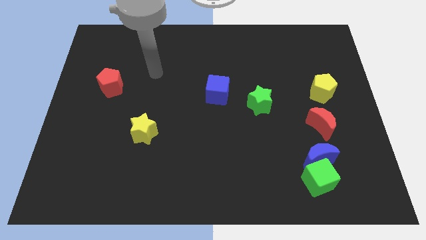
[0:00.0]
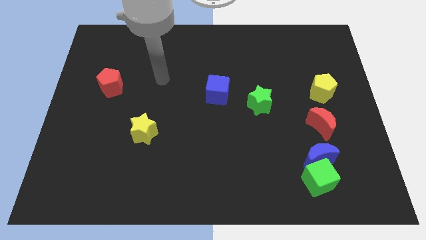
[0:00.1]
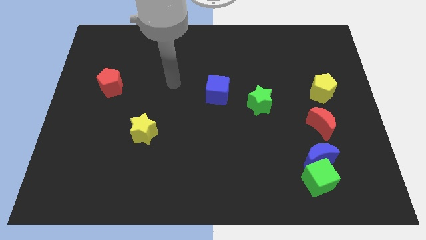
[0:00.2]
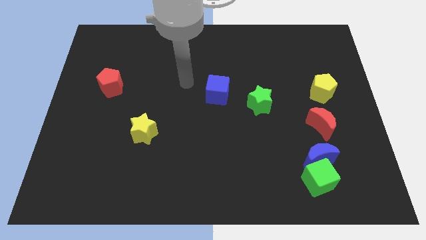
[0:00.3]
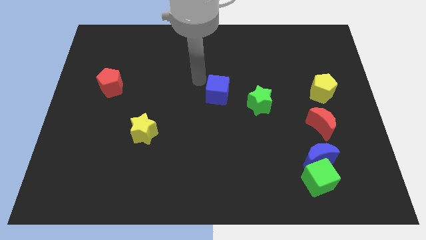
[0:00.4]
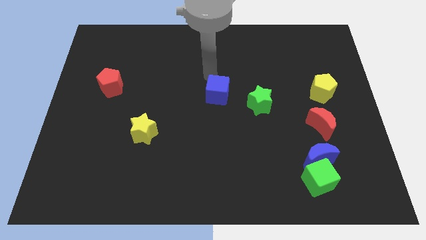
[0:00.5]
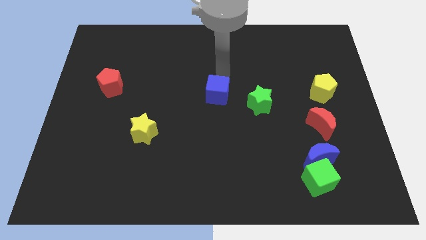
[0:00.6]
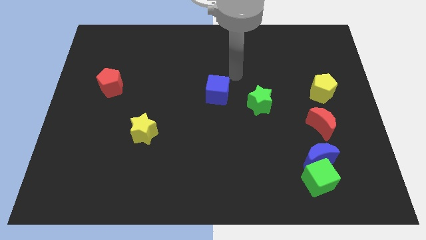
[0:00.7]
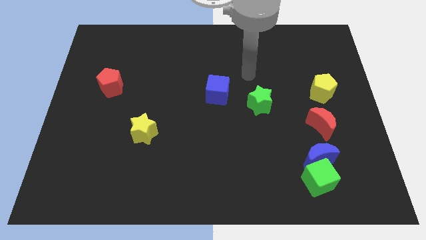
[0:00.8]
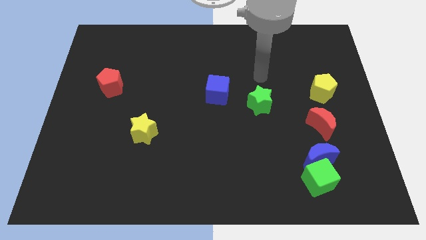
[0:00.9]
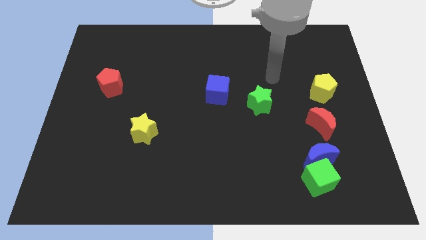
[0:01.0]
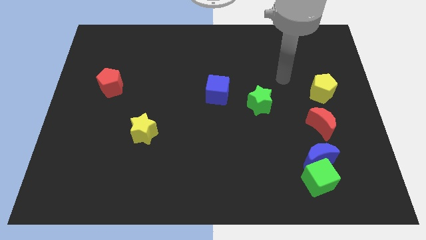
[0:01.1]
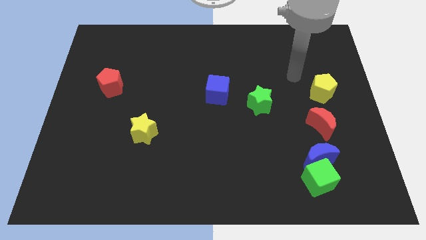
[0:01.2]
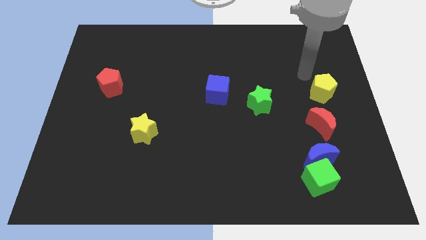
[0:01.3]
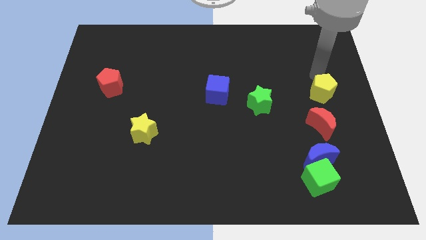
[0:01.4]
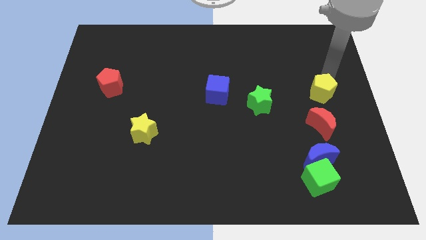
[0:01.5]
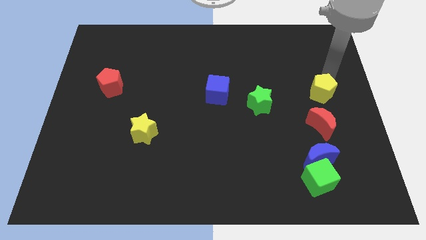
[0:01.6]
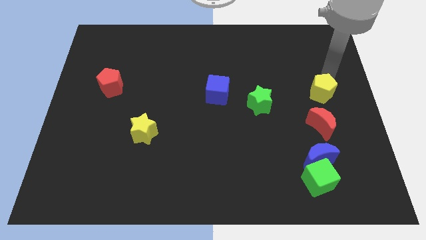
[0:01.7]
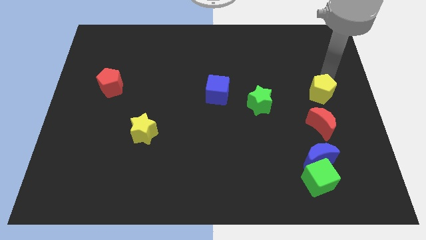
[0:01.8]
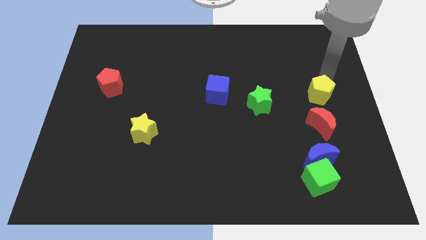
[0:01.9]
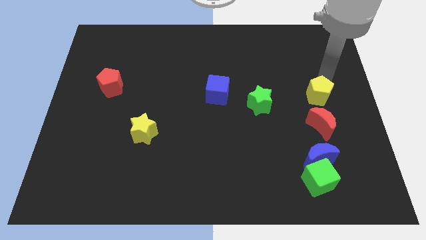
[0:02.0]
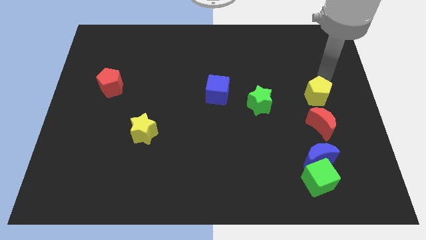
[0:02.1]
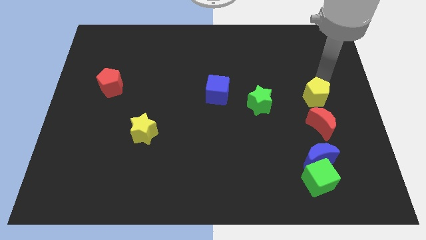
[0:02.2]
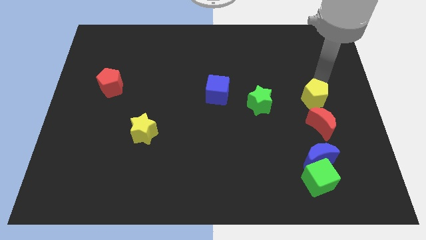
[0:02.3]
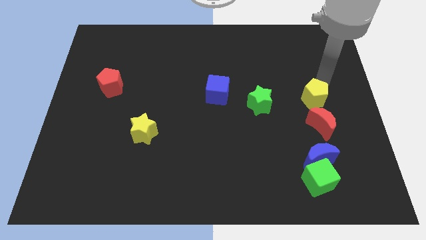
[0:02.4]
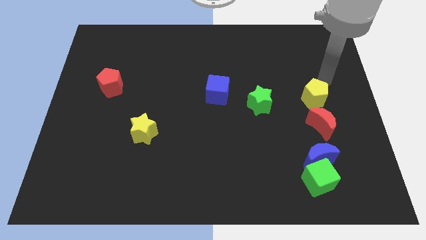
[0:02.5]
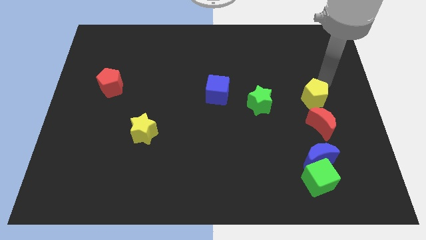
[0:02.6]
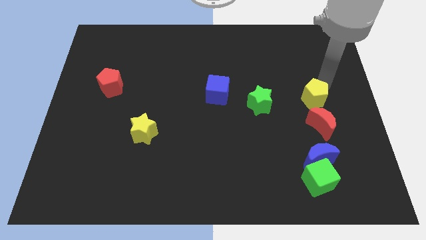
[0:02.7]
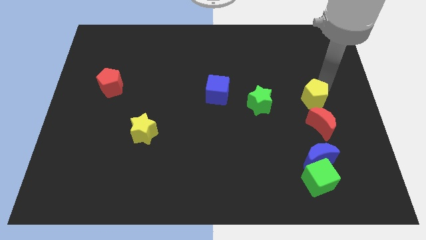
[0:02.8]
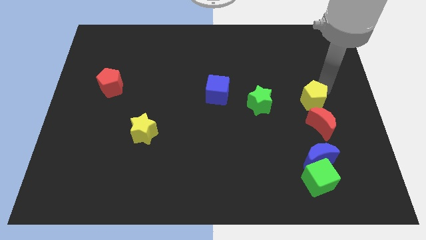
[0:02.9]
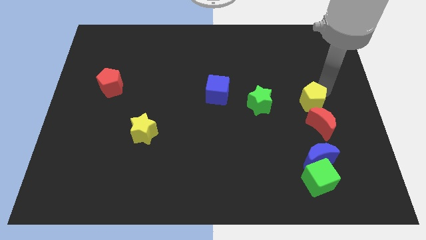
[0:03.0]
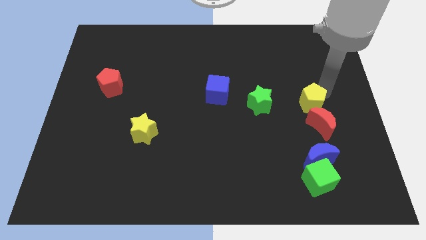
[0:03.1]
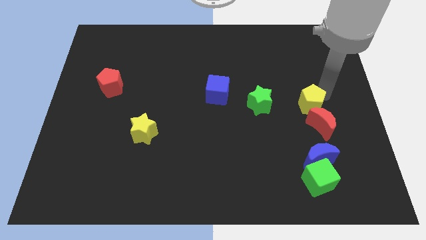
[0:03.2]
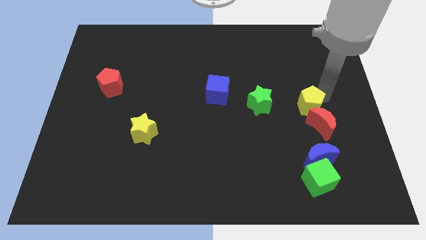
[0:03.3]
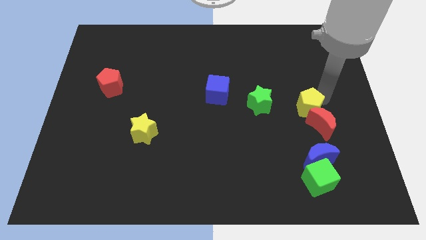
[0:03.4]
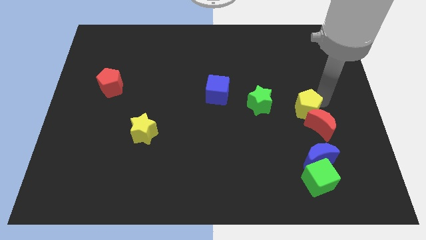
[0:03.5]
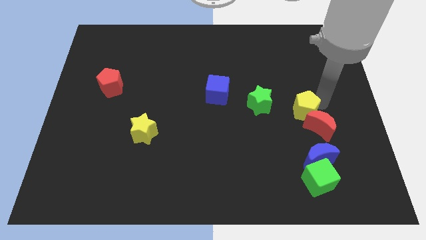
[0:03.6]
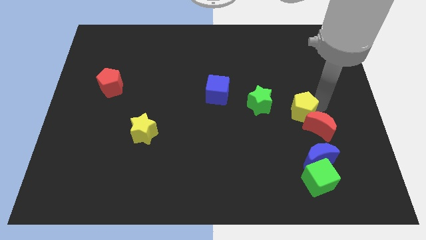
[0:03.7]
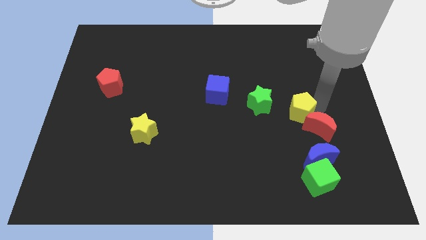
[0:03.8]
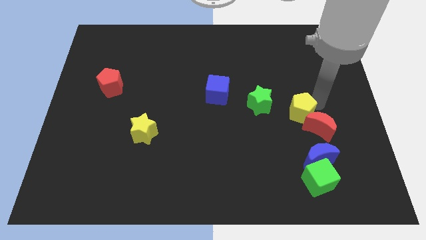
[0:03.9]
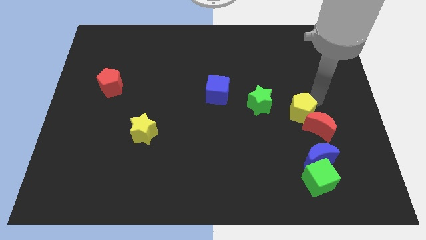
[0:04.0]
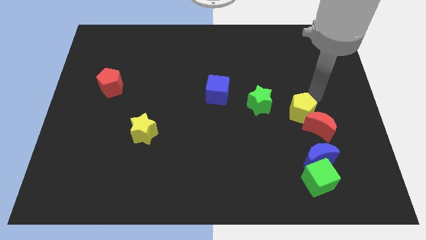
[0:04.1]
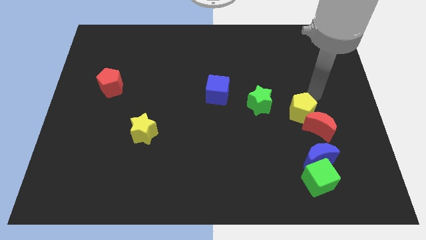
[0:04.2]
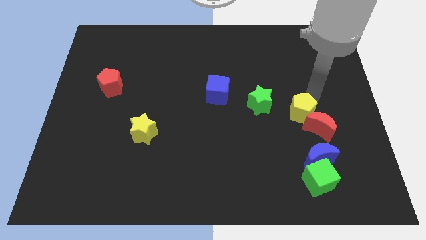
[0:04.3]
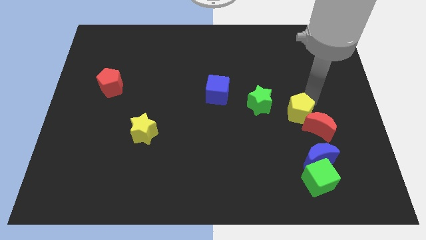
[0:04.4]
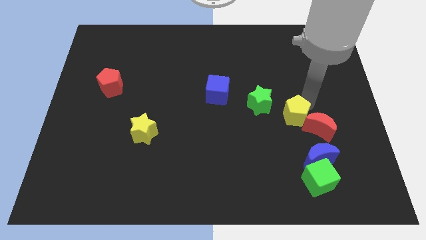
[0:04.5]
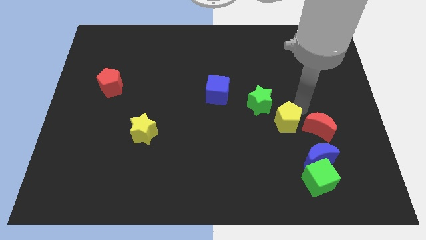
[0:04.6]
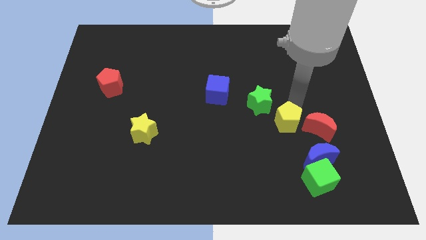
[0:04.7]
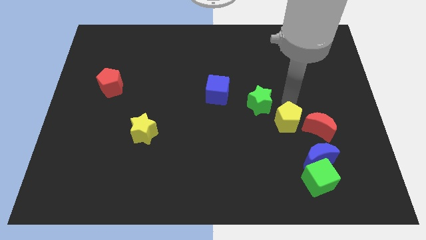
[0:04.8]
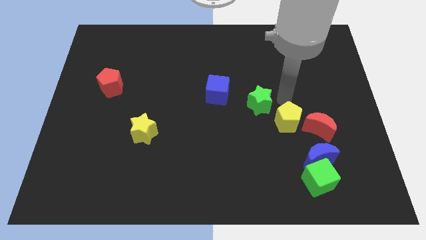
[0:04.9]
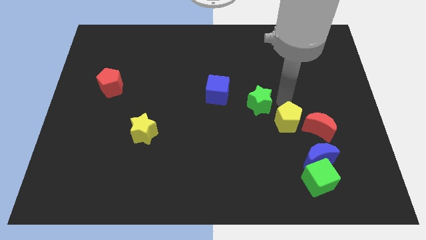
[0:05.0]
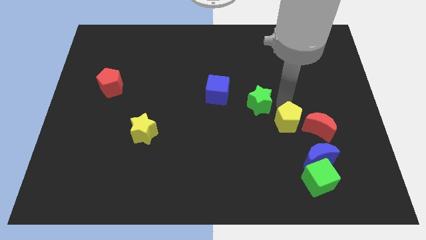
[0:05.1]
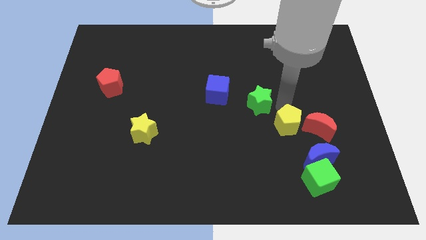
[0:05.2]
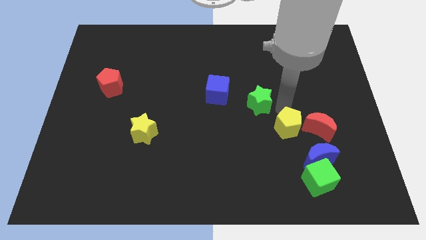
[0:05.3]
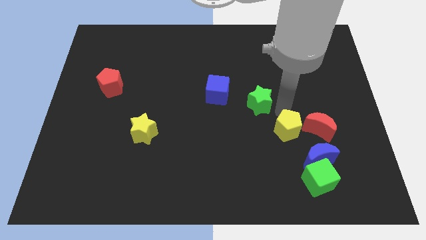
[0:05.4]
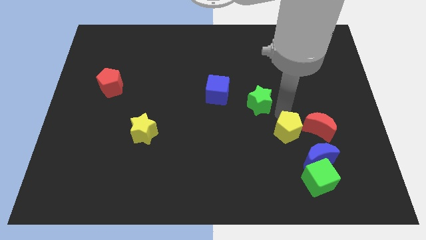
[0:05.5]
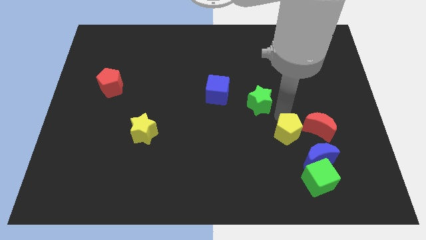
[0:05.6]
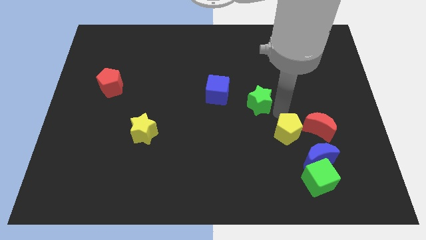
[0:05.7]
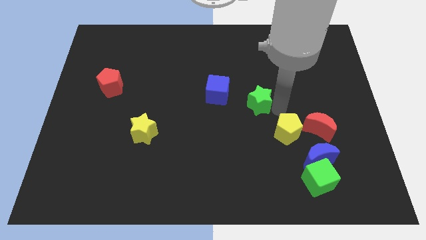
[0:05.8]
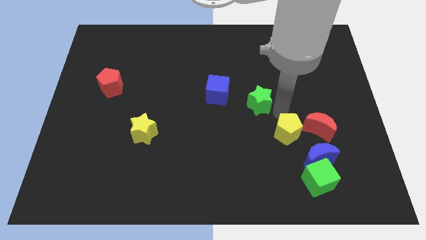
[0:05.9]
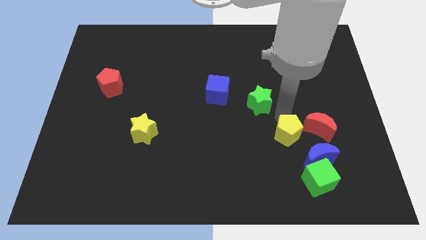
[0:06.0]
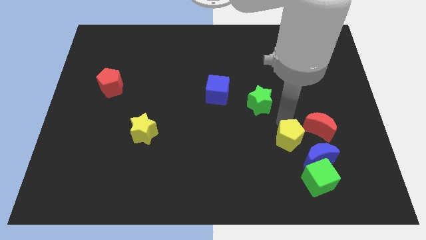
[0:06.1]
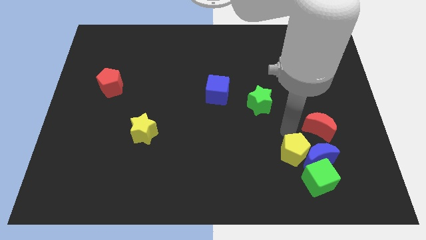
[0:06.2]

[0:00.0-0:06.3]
move the yellow pentagon to the bottom left side of the blue moon
